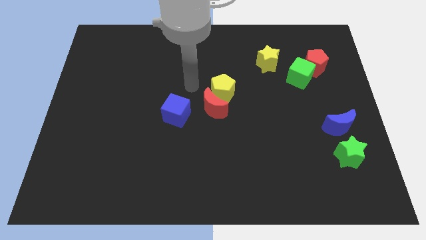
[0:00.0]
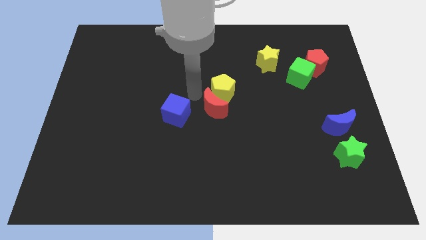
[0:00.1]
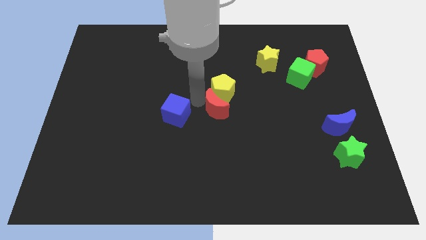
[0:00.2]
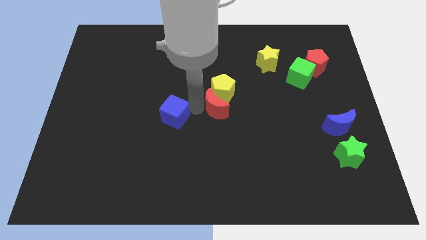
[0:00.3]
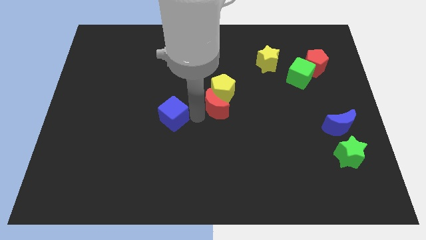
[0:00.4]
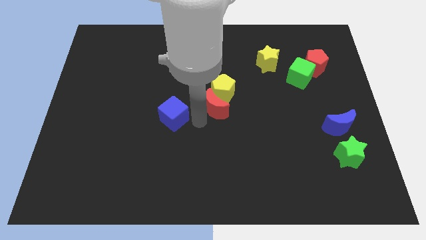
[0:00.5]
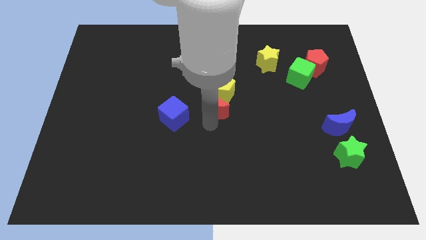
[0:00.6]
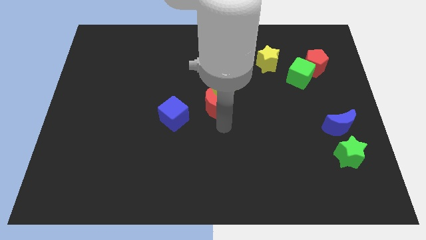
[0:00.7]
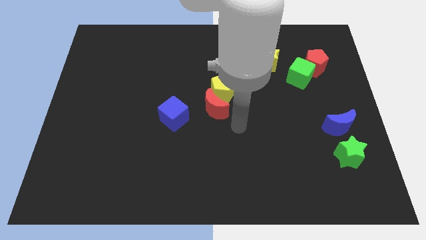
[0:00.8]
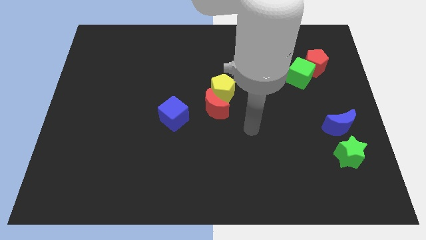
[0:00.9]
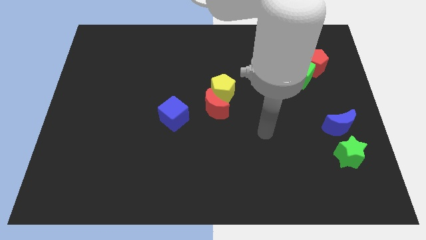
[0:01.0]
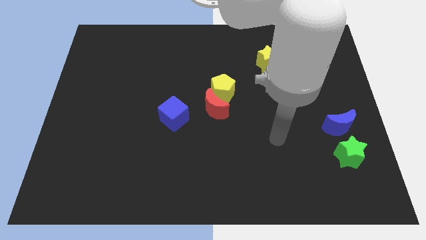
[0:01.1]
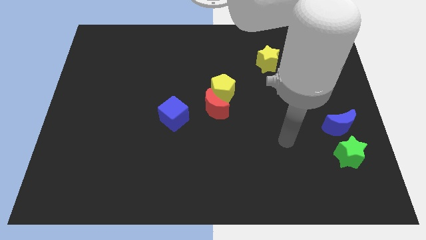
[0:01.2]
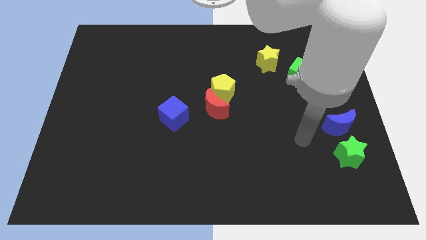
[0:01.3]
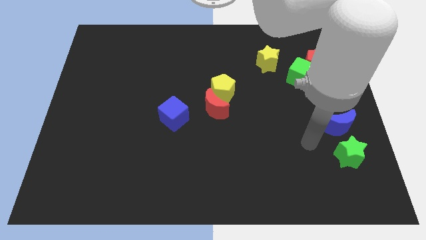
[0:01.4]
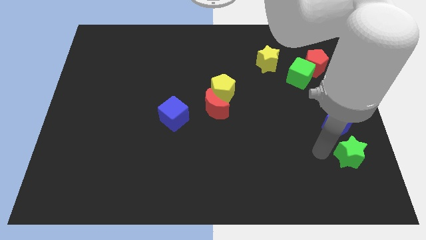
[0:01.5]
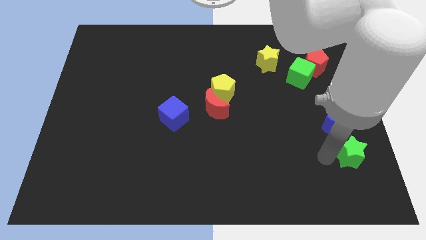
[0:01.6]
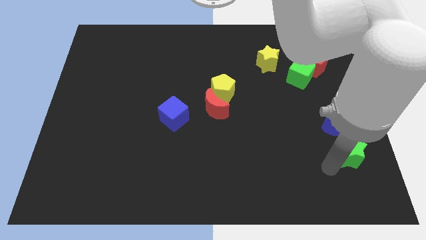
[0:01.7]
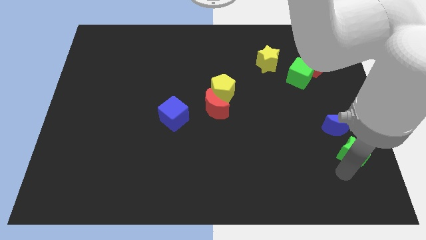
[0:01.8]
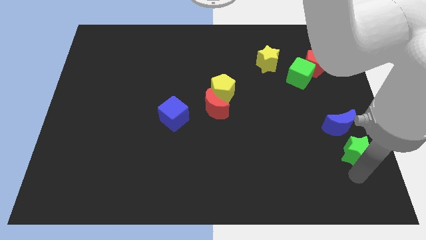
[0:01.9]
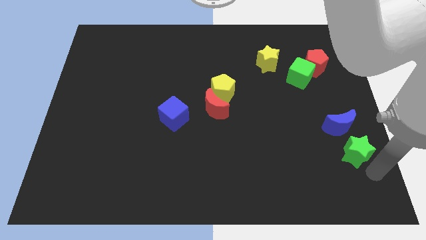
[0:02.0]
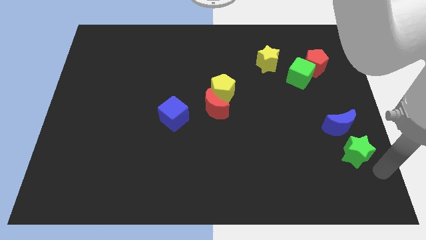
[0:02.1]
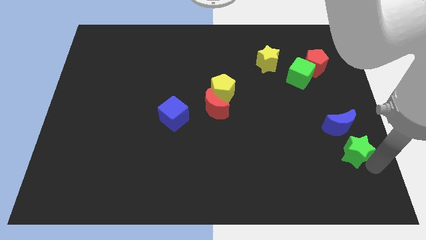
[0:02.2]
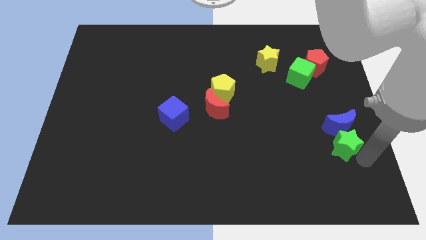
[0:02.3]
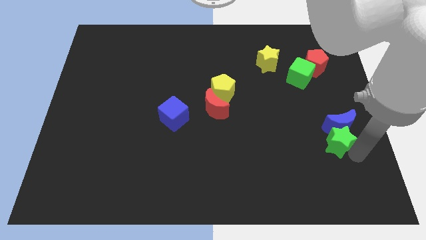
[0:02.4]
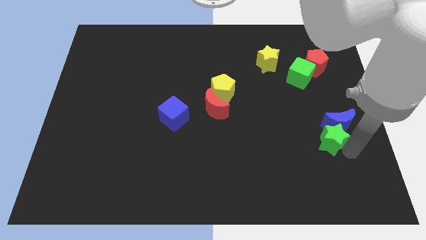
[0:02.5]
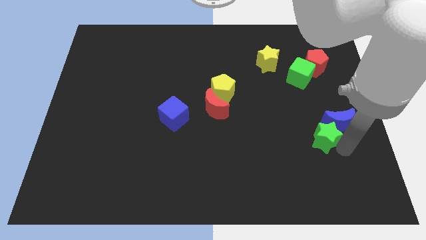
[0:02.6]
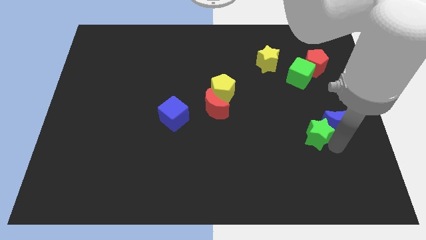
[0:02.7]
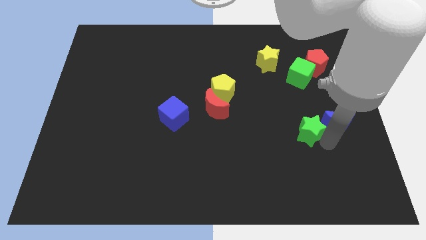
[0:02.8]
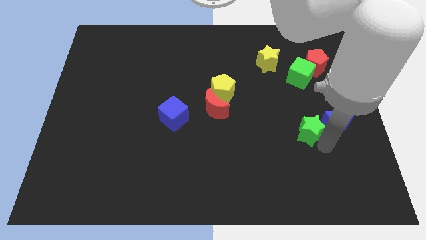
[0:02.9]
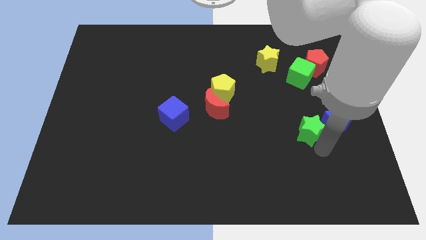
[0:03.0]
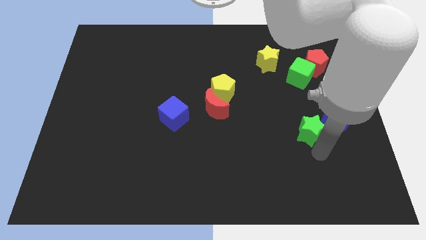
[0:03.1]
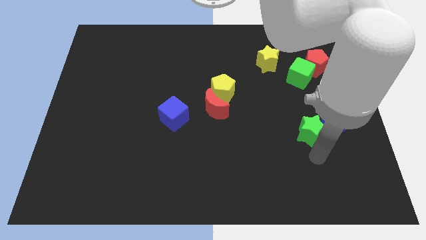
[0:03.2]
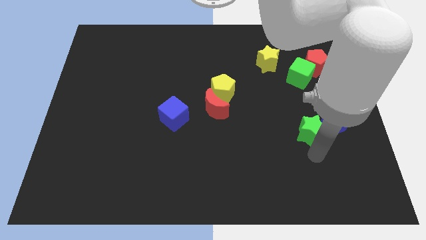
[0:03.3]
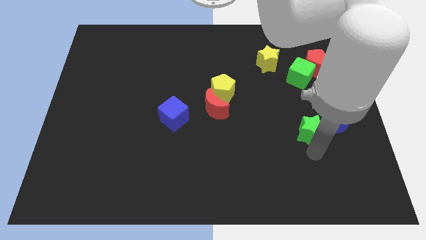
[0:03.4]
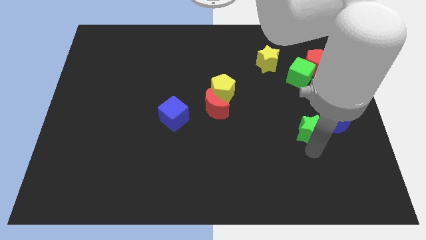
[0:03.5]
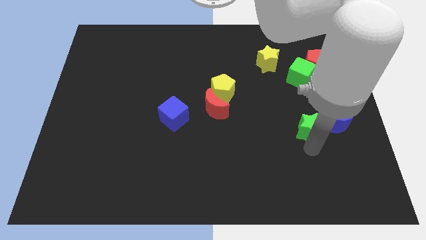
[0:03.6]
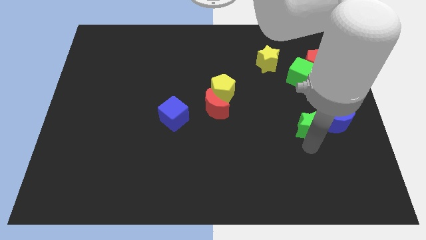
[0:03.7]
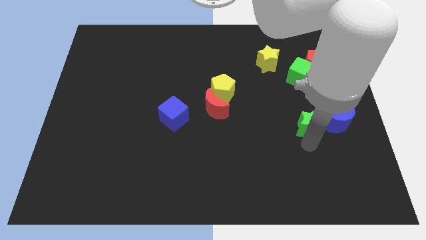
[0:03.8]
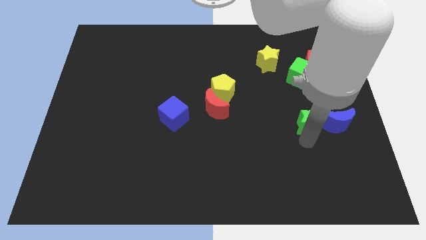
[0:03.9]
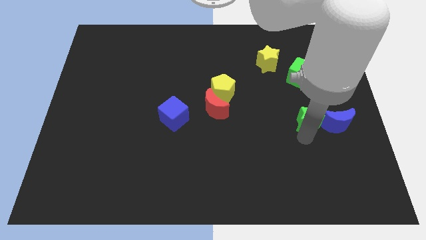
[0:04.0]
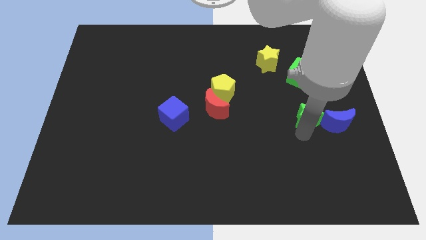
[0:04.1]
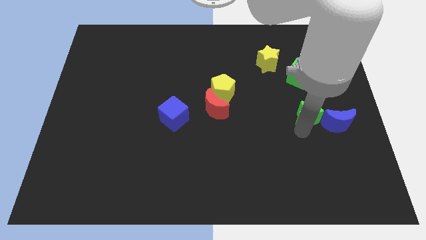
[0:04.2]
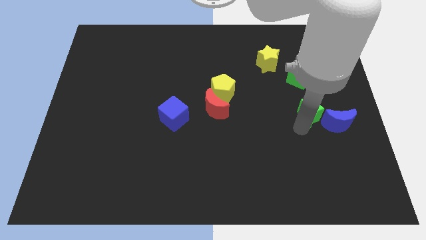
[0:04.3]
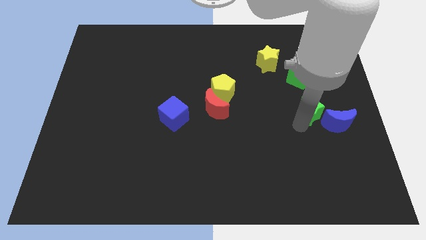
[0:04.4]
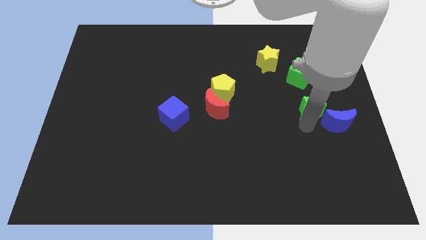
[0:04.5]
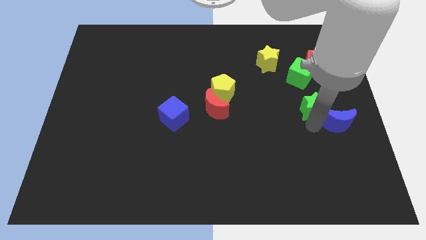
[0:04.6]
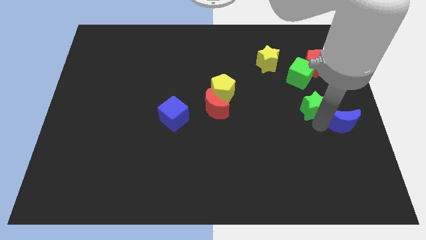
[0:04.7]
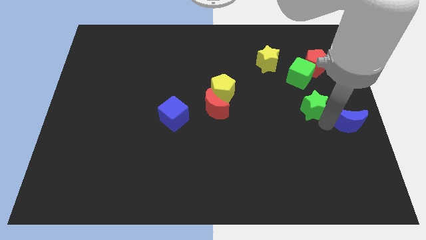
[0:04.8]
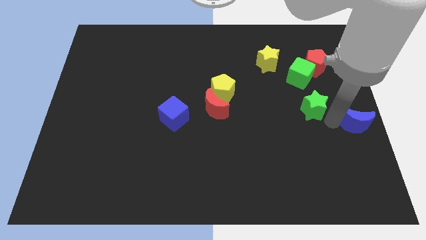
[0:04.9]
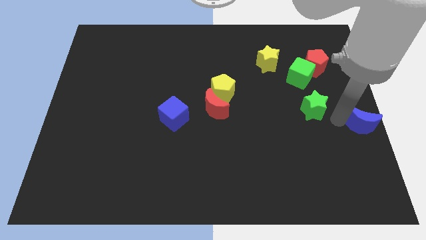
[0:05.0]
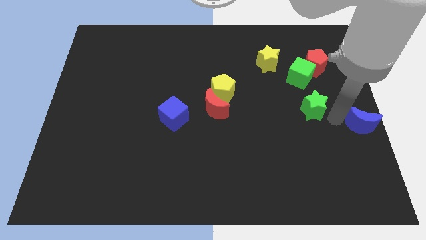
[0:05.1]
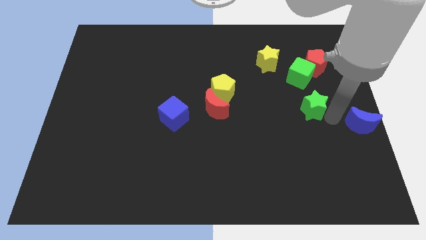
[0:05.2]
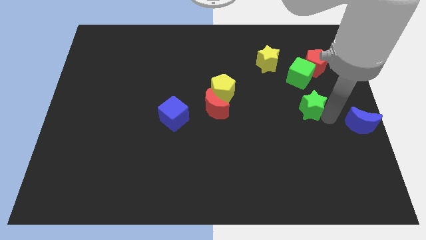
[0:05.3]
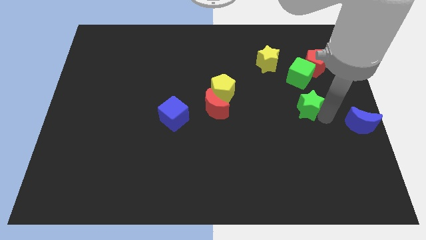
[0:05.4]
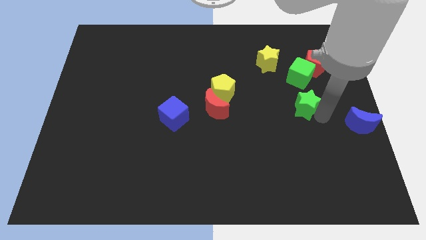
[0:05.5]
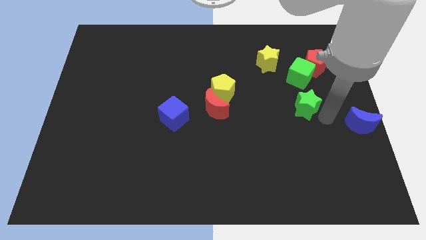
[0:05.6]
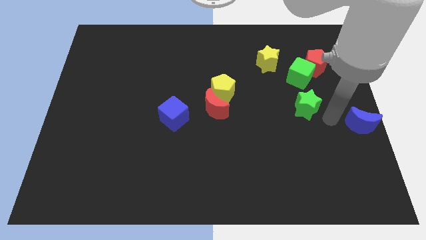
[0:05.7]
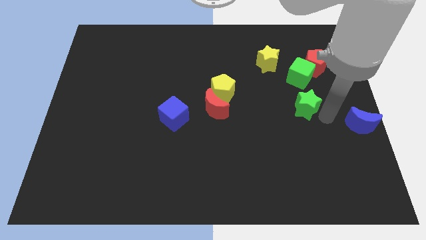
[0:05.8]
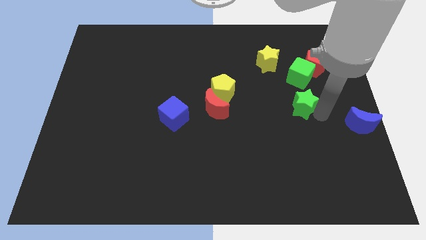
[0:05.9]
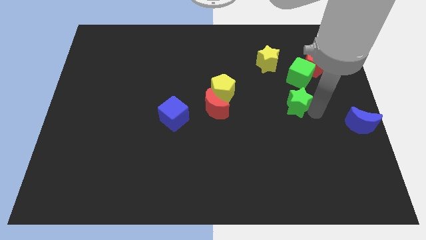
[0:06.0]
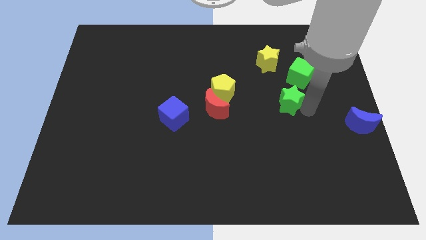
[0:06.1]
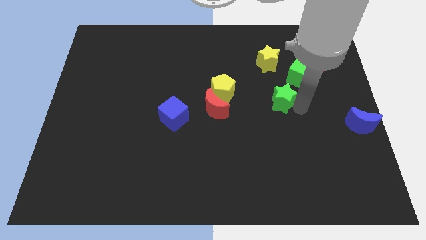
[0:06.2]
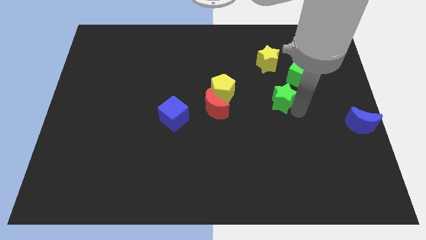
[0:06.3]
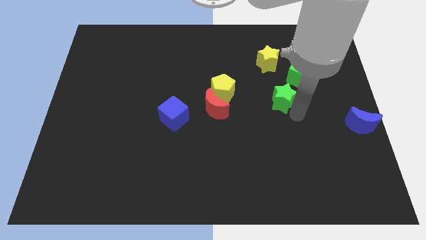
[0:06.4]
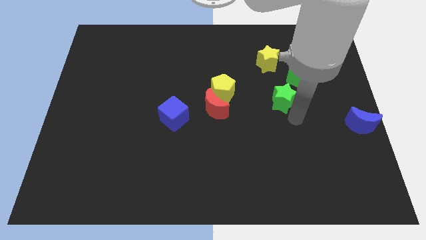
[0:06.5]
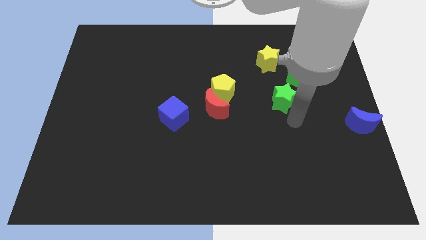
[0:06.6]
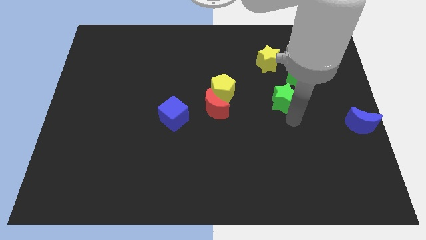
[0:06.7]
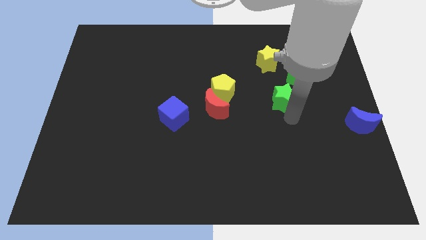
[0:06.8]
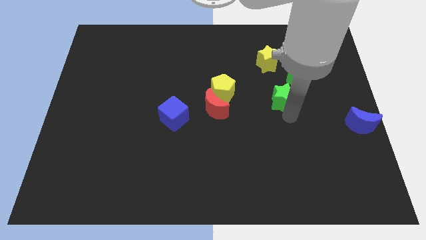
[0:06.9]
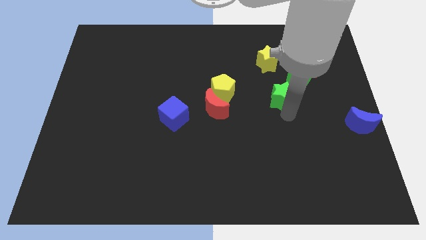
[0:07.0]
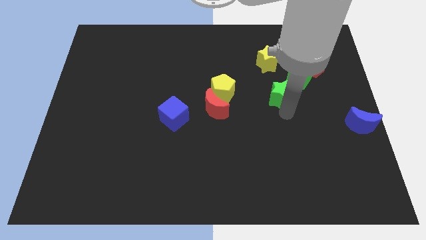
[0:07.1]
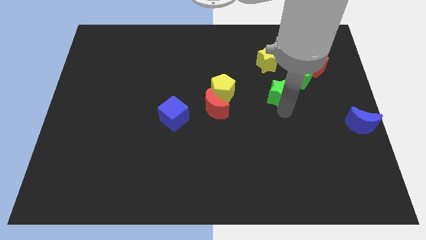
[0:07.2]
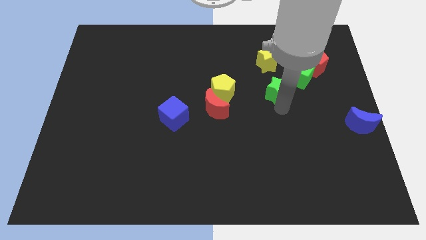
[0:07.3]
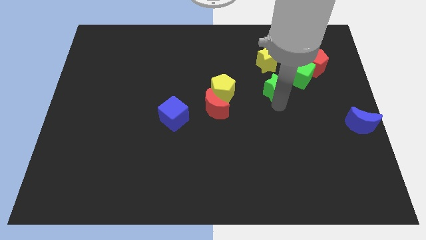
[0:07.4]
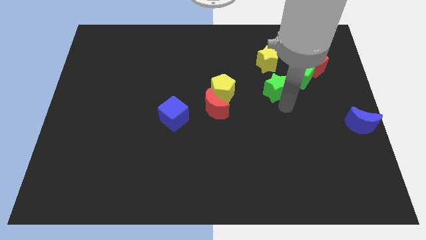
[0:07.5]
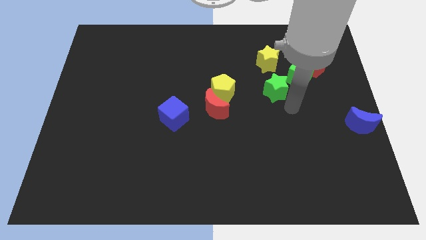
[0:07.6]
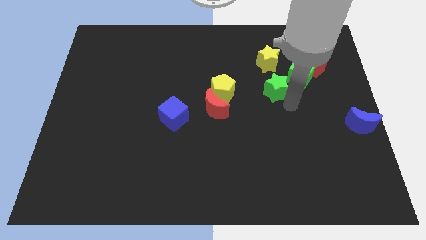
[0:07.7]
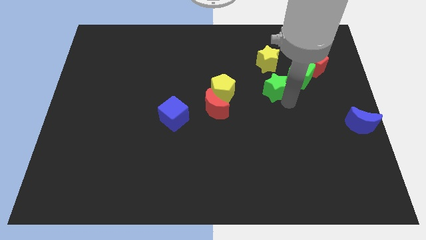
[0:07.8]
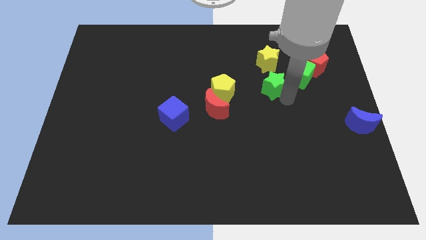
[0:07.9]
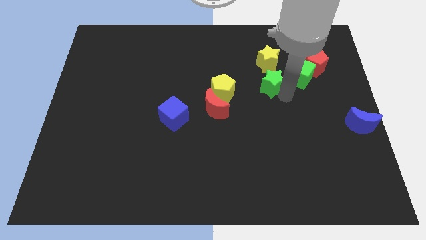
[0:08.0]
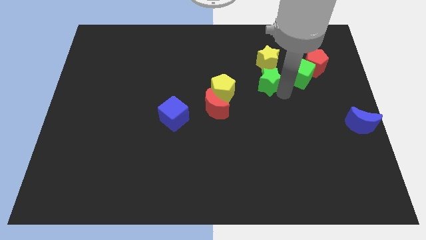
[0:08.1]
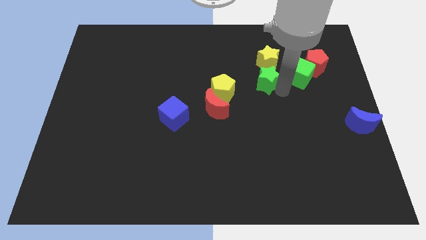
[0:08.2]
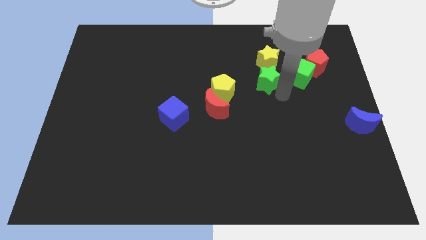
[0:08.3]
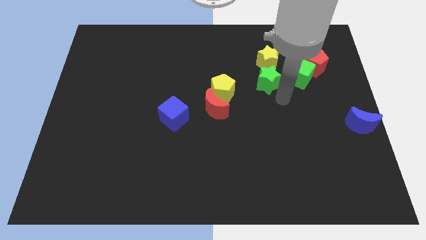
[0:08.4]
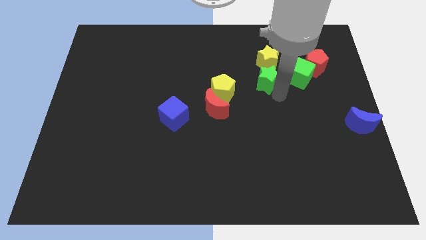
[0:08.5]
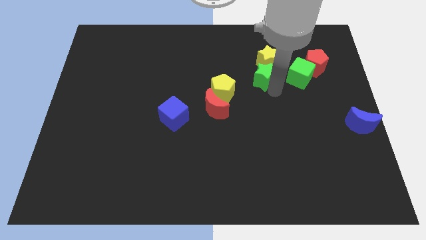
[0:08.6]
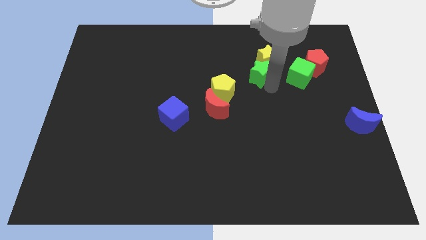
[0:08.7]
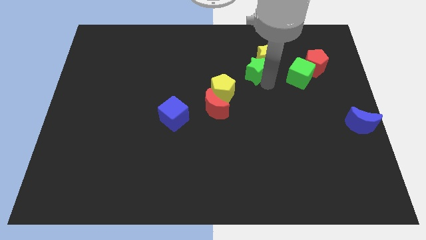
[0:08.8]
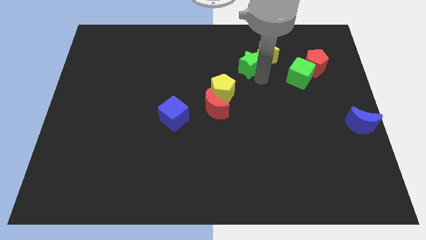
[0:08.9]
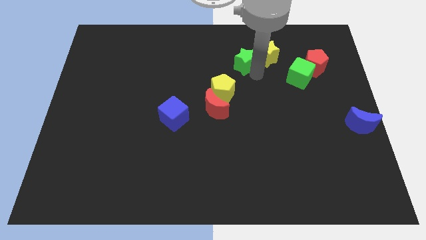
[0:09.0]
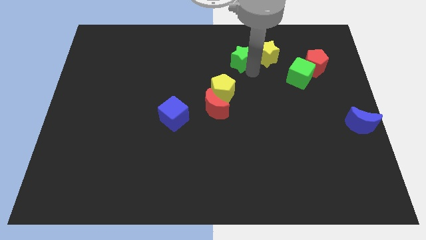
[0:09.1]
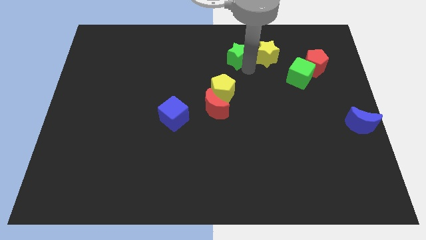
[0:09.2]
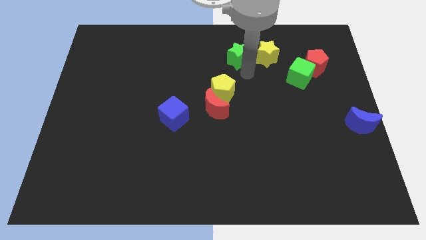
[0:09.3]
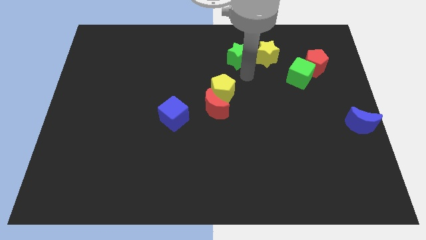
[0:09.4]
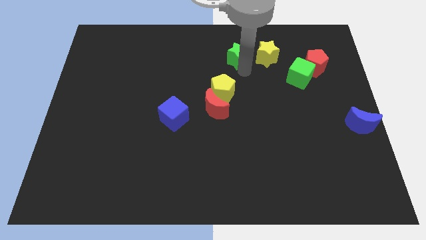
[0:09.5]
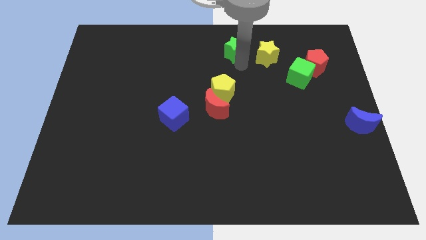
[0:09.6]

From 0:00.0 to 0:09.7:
slide the green star to the top side
